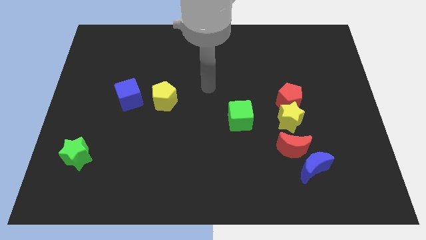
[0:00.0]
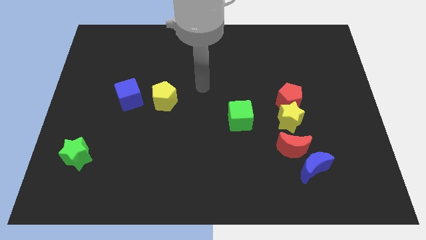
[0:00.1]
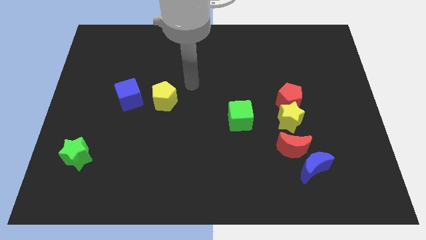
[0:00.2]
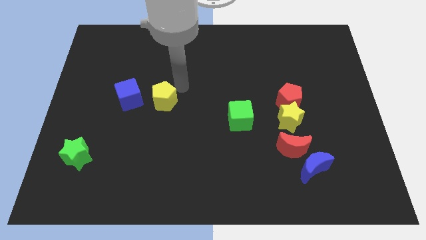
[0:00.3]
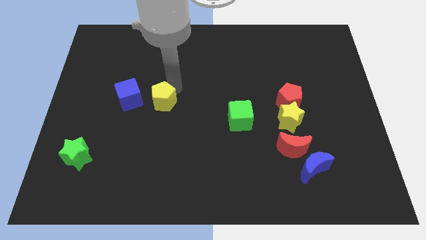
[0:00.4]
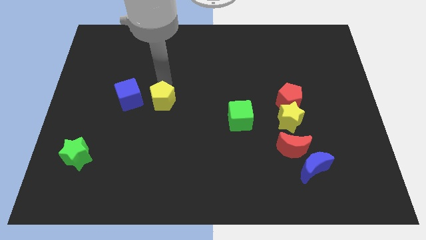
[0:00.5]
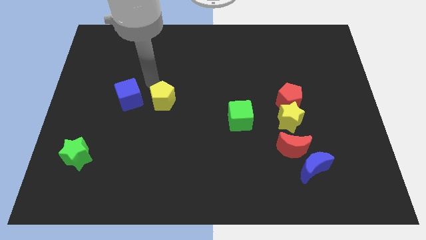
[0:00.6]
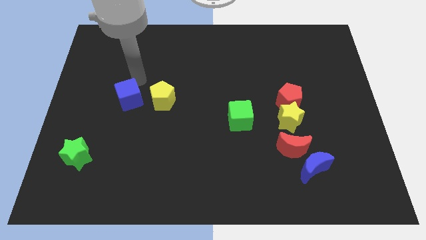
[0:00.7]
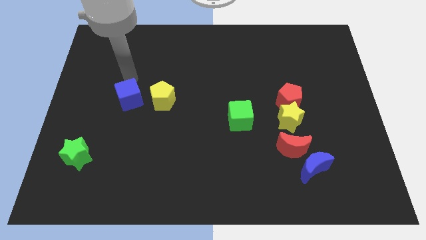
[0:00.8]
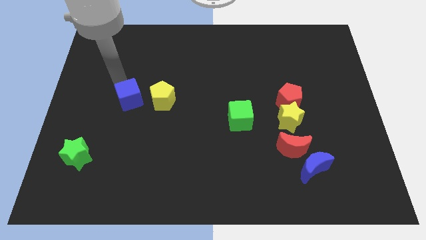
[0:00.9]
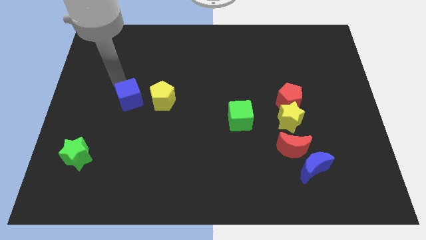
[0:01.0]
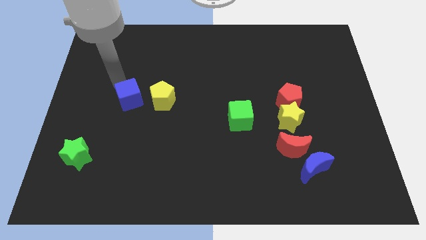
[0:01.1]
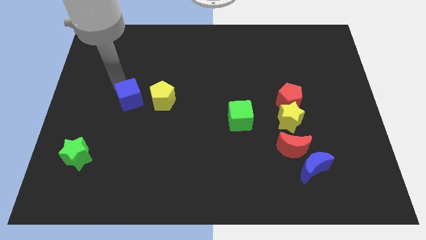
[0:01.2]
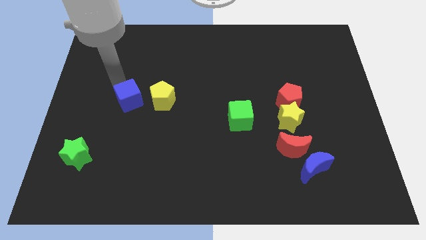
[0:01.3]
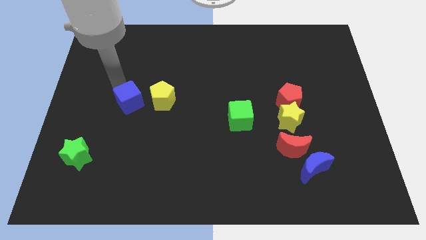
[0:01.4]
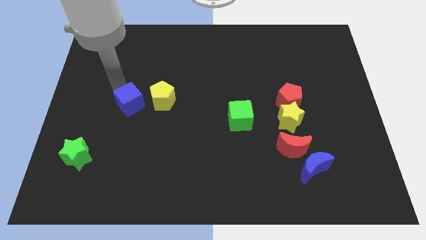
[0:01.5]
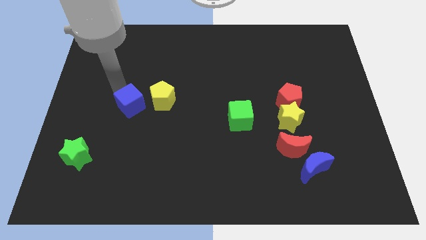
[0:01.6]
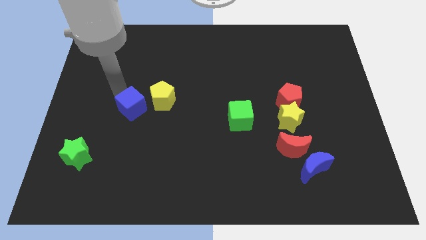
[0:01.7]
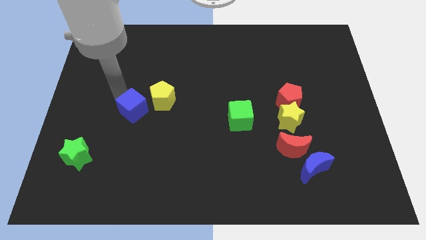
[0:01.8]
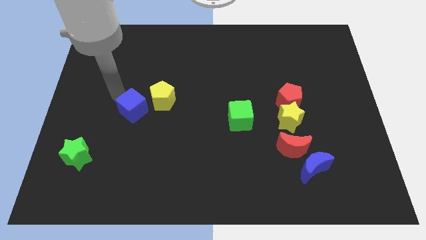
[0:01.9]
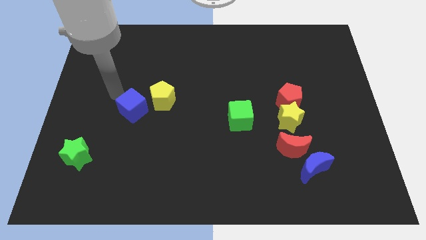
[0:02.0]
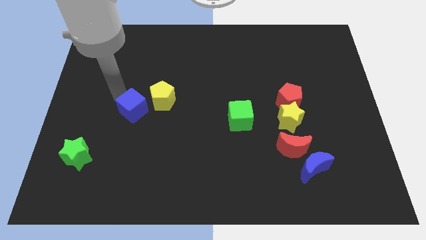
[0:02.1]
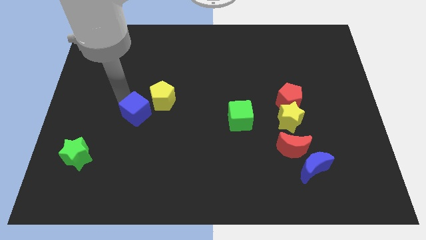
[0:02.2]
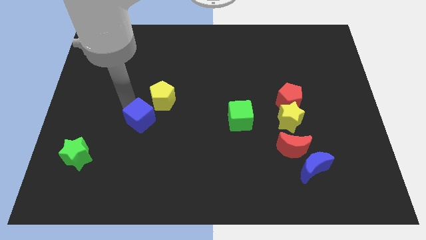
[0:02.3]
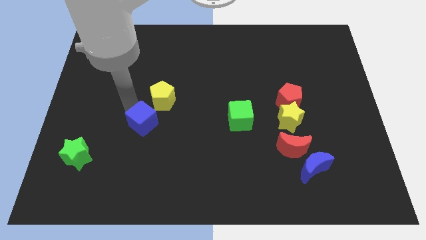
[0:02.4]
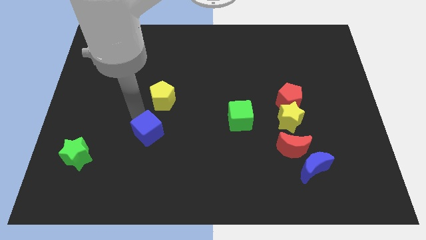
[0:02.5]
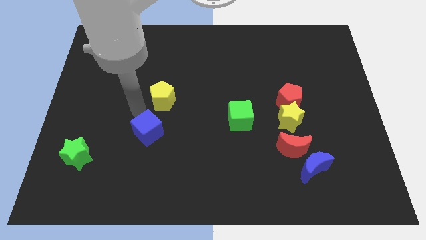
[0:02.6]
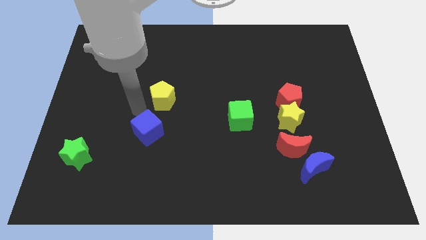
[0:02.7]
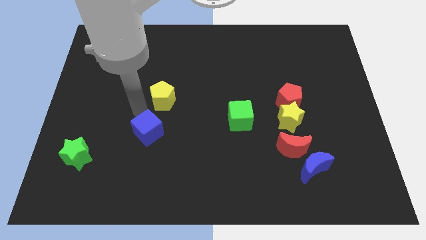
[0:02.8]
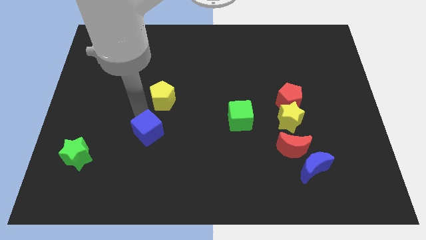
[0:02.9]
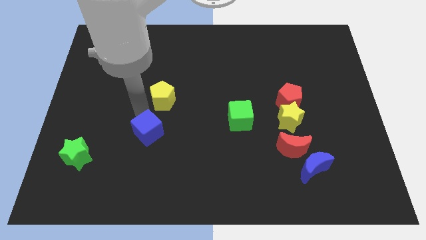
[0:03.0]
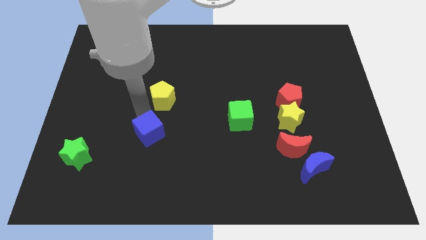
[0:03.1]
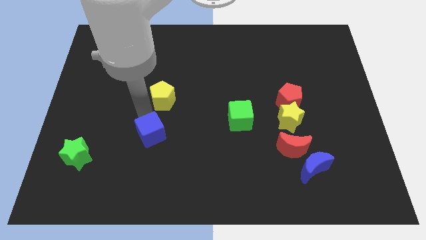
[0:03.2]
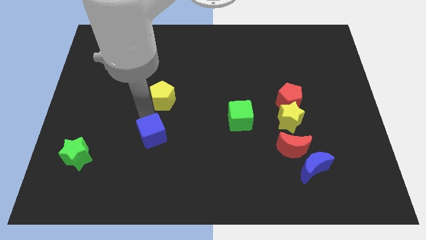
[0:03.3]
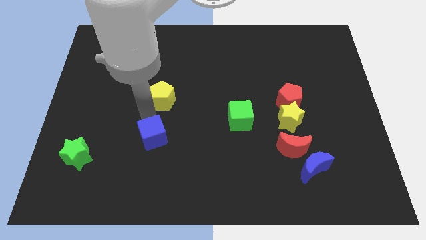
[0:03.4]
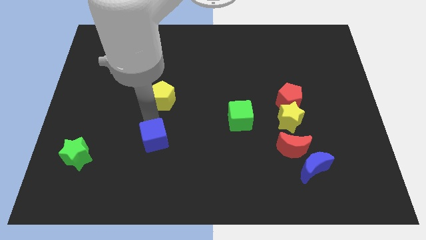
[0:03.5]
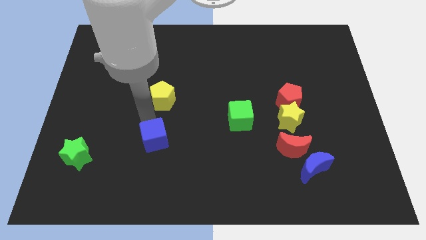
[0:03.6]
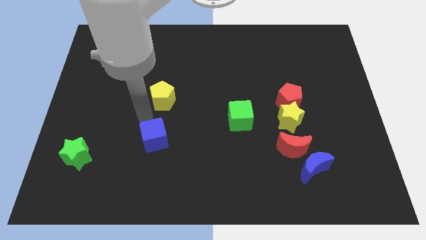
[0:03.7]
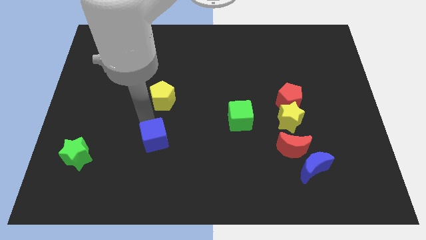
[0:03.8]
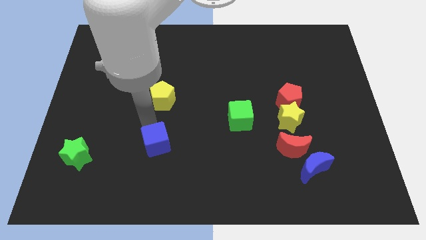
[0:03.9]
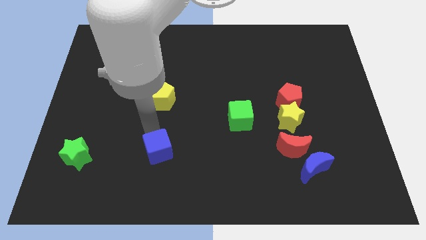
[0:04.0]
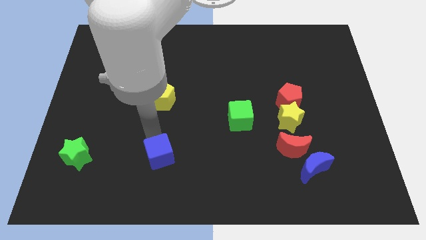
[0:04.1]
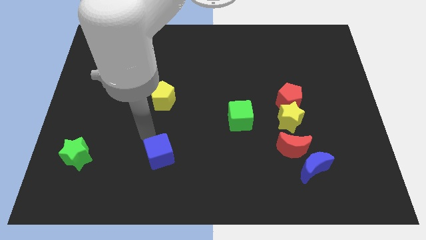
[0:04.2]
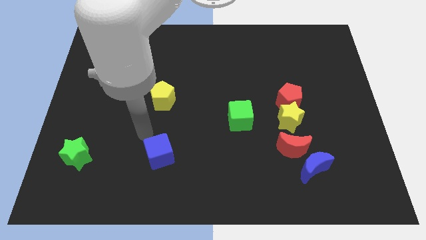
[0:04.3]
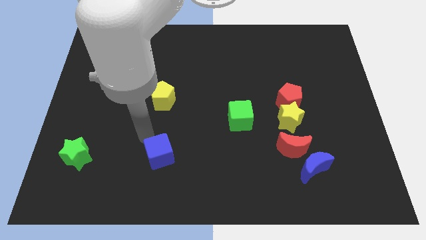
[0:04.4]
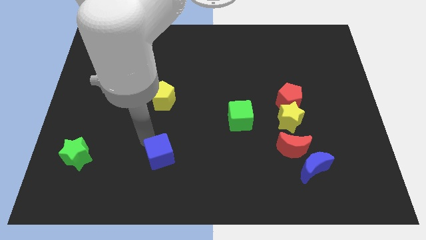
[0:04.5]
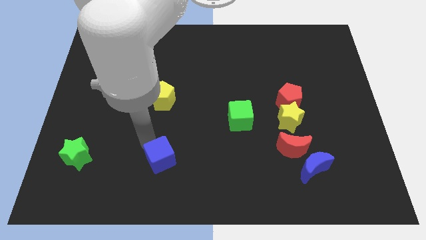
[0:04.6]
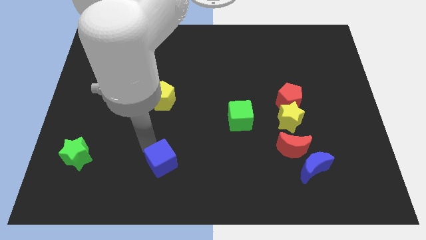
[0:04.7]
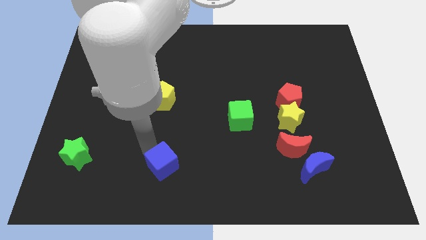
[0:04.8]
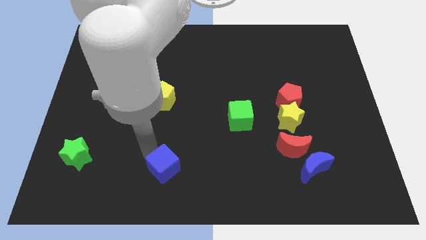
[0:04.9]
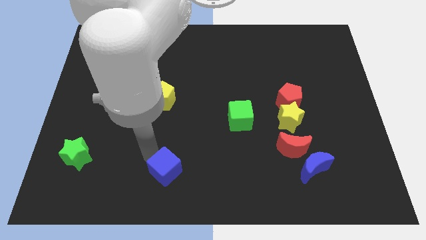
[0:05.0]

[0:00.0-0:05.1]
slide the blue cube to the bottom

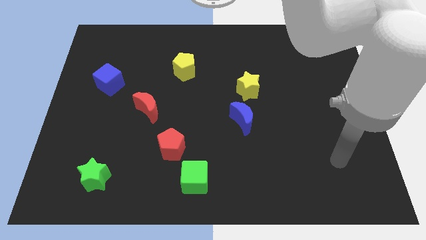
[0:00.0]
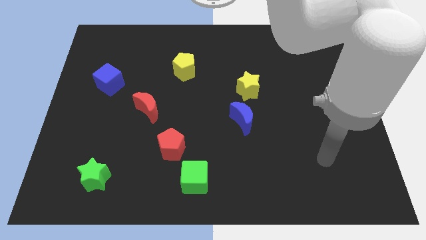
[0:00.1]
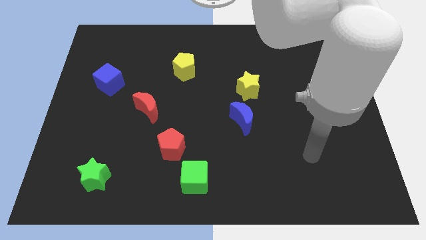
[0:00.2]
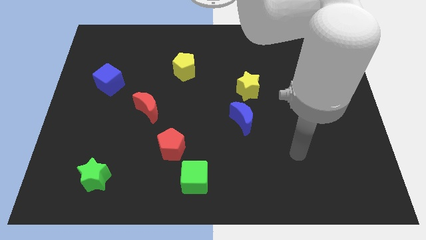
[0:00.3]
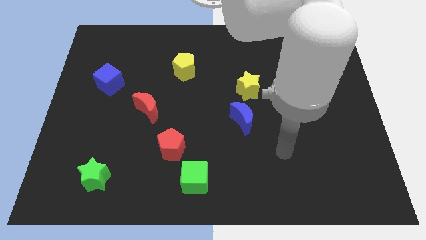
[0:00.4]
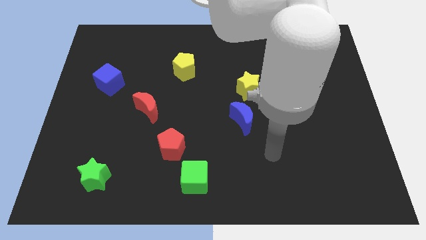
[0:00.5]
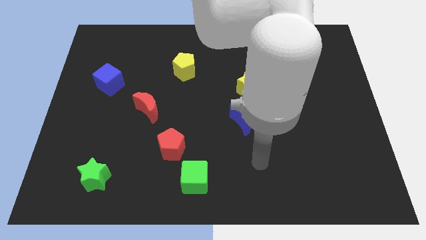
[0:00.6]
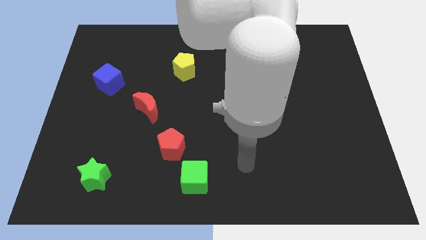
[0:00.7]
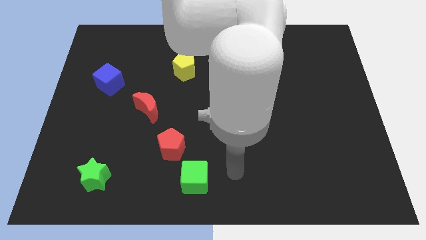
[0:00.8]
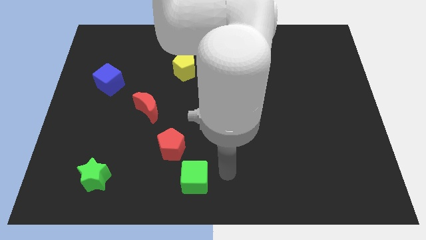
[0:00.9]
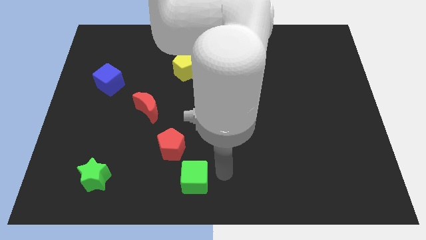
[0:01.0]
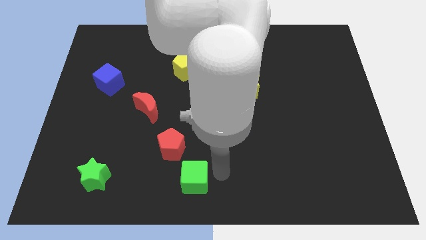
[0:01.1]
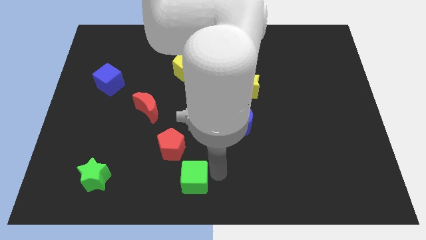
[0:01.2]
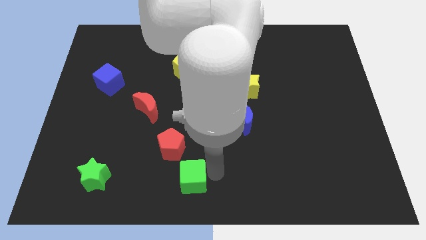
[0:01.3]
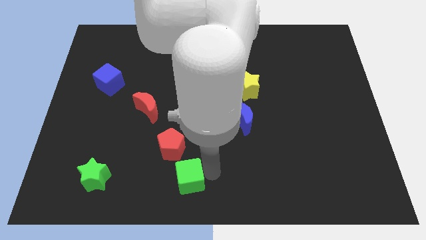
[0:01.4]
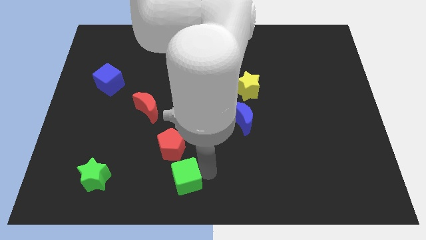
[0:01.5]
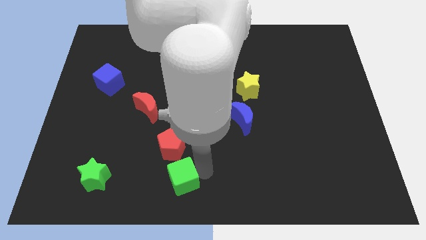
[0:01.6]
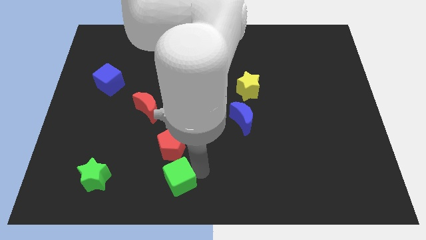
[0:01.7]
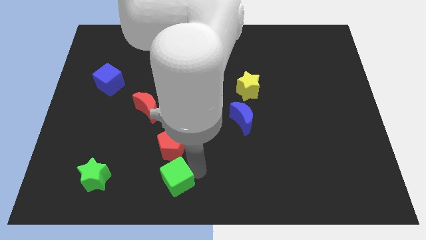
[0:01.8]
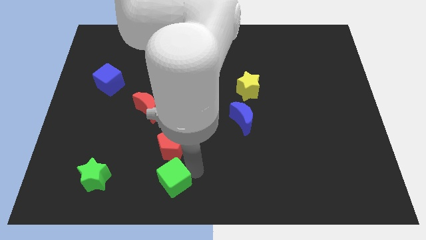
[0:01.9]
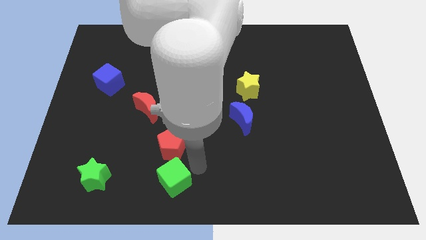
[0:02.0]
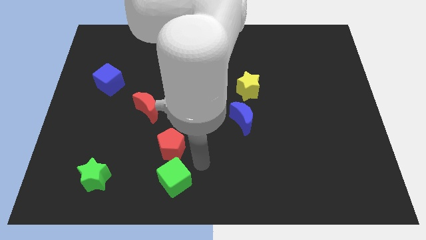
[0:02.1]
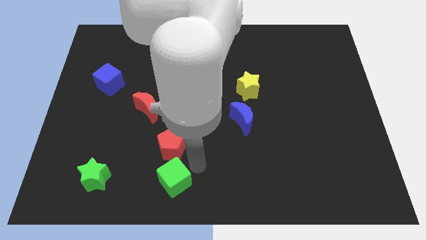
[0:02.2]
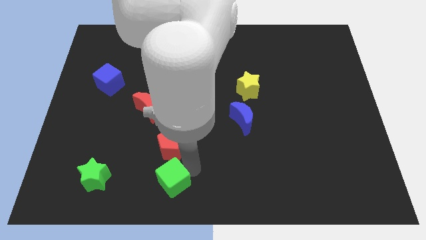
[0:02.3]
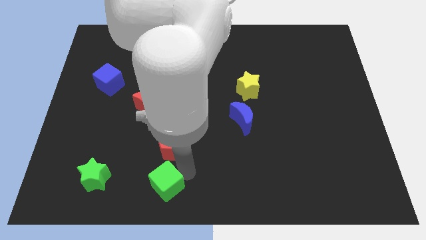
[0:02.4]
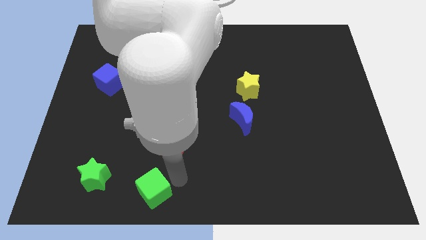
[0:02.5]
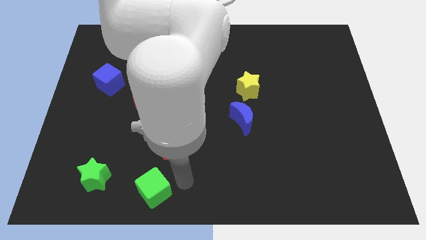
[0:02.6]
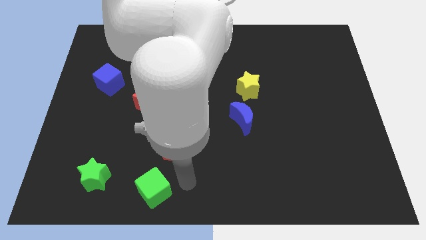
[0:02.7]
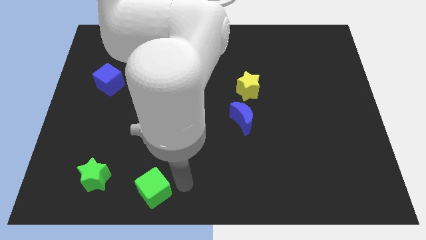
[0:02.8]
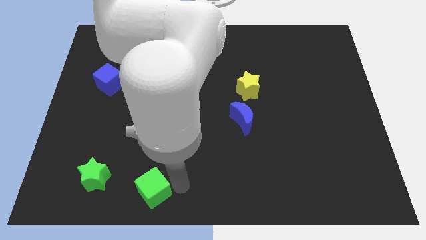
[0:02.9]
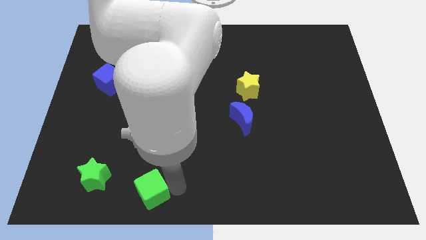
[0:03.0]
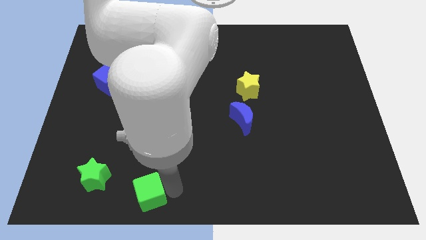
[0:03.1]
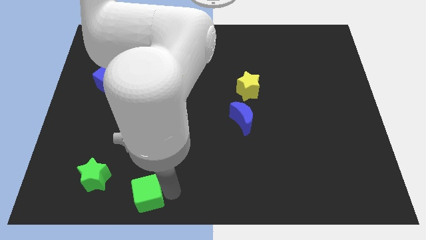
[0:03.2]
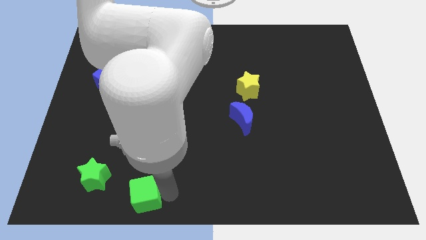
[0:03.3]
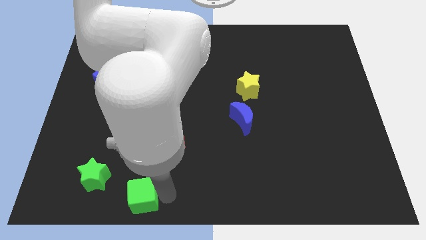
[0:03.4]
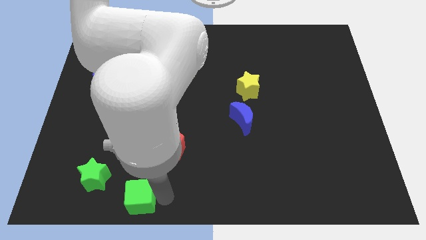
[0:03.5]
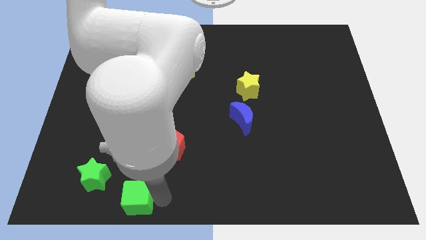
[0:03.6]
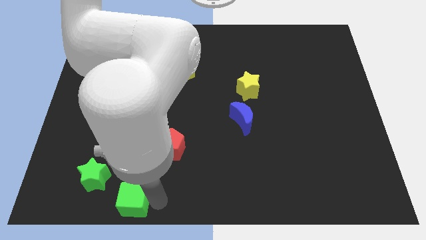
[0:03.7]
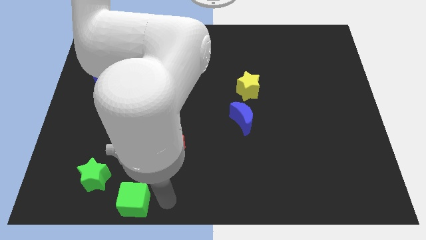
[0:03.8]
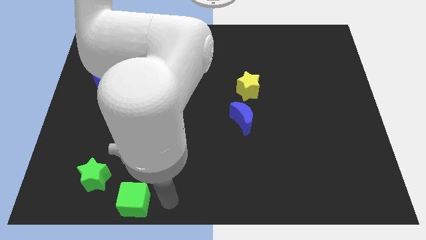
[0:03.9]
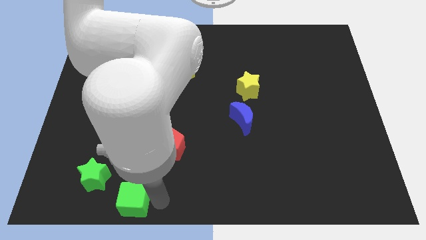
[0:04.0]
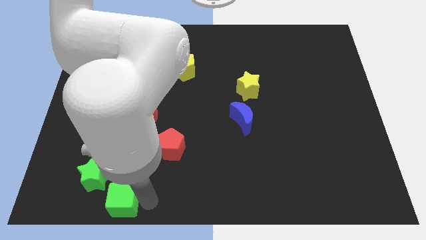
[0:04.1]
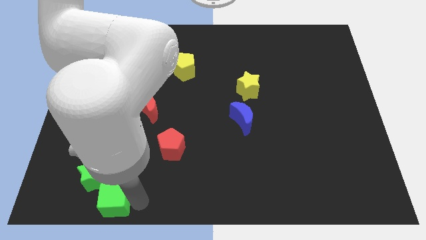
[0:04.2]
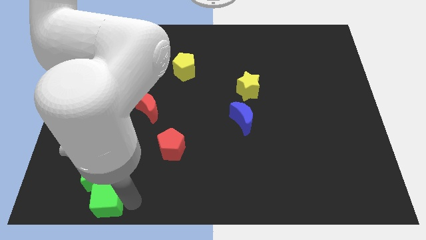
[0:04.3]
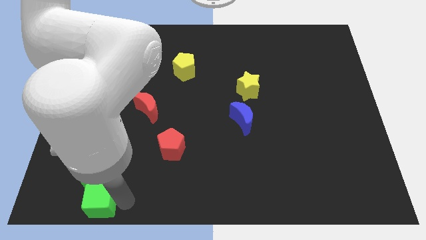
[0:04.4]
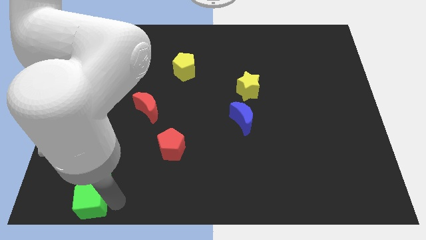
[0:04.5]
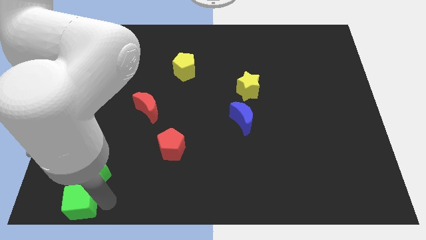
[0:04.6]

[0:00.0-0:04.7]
slide the green cube to the lower left corner
